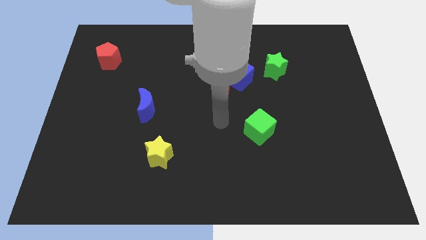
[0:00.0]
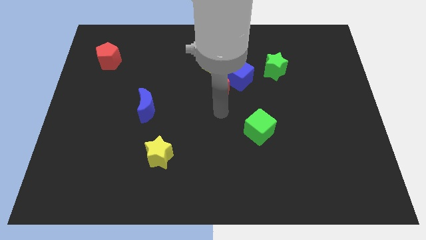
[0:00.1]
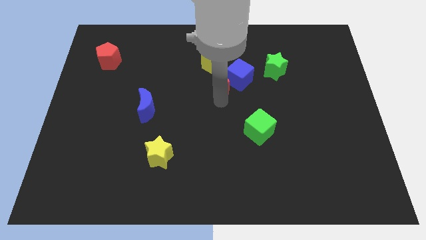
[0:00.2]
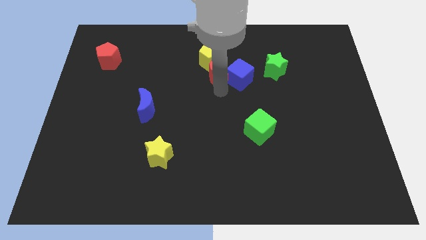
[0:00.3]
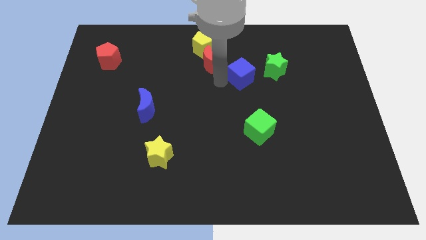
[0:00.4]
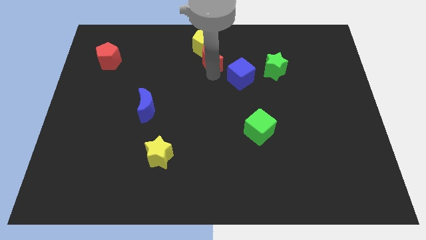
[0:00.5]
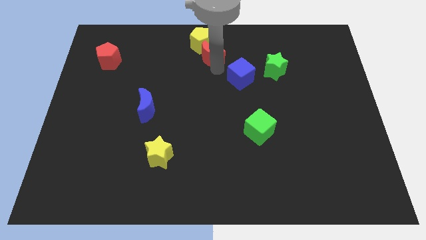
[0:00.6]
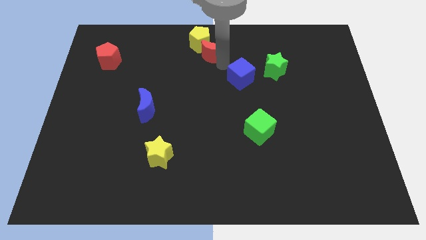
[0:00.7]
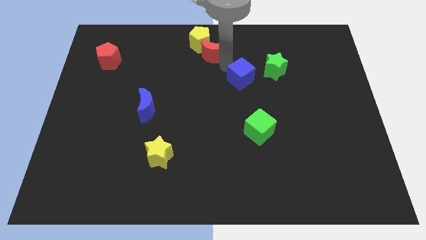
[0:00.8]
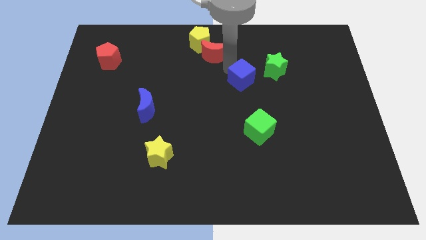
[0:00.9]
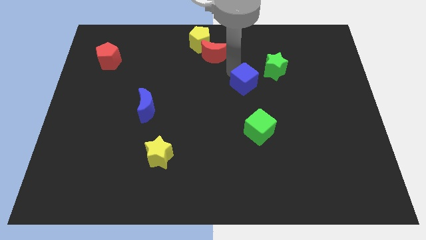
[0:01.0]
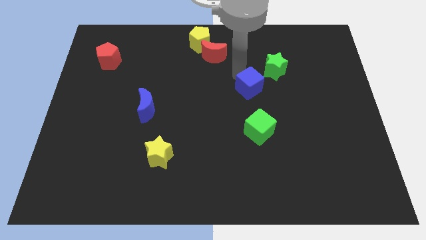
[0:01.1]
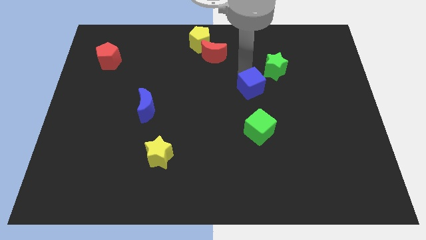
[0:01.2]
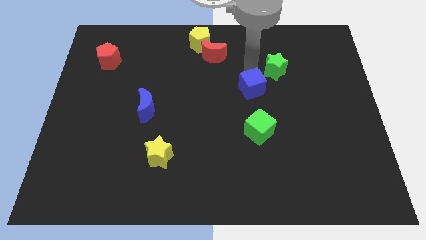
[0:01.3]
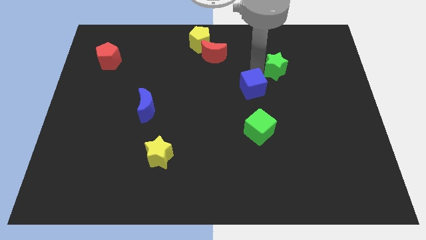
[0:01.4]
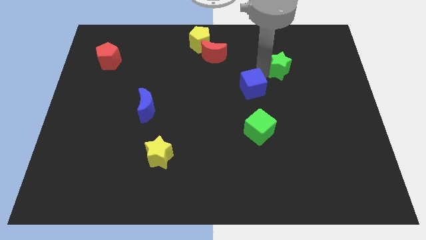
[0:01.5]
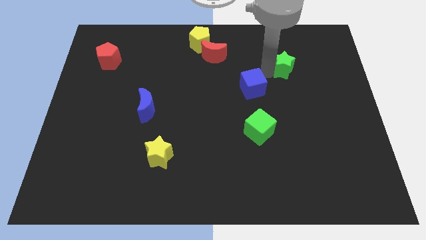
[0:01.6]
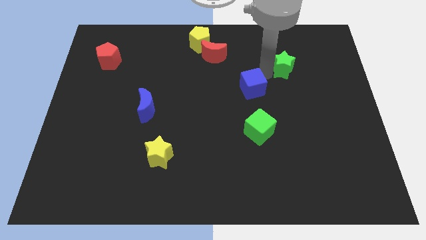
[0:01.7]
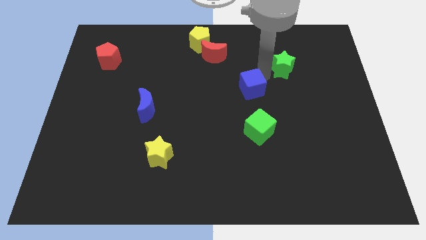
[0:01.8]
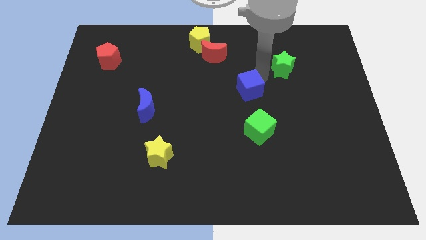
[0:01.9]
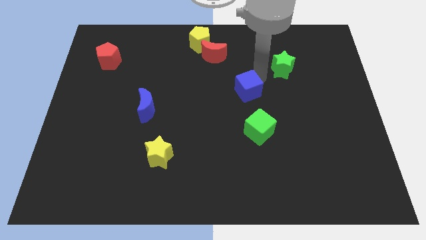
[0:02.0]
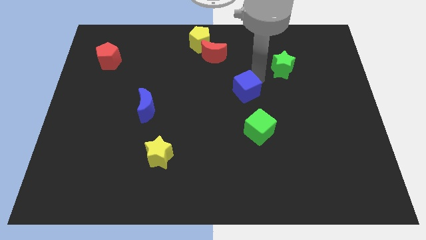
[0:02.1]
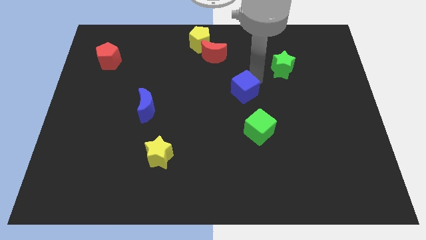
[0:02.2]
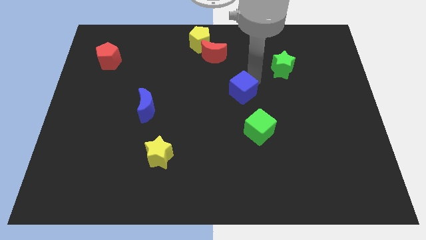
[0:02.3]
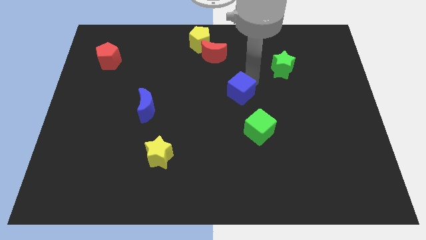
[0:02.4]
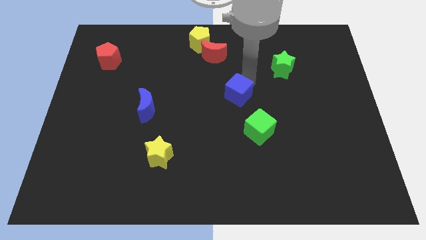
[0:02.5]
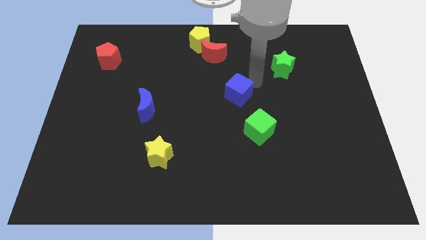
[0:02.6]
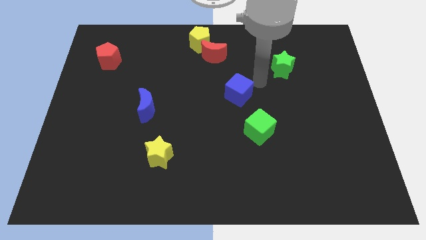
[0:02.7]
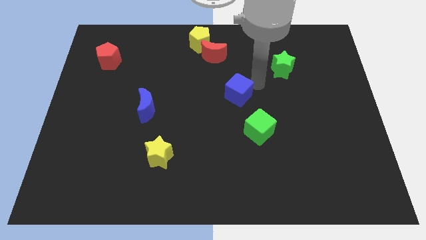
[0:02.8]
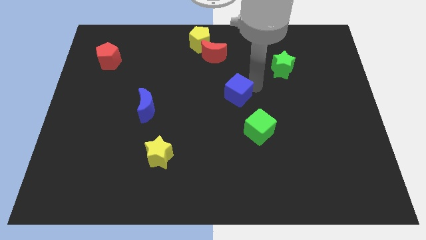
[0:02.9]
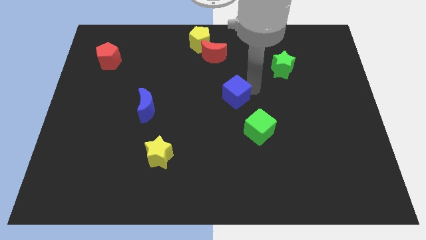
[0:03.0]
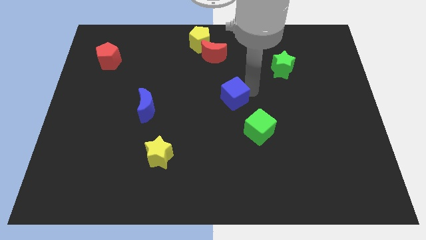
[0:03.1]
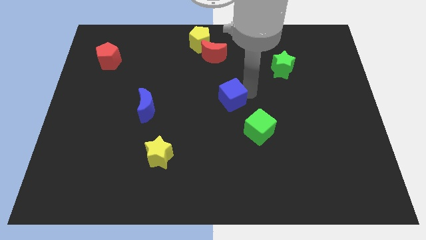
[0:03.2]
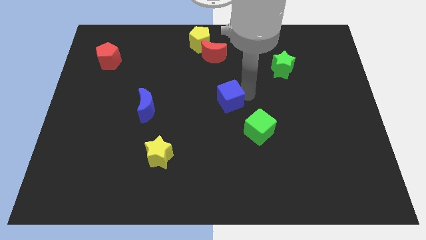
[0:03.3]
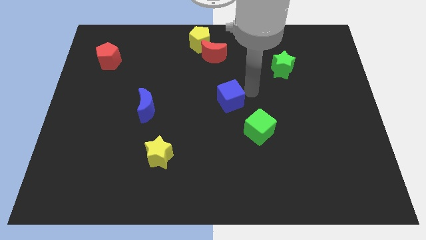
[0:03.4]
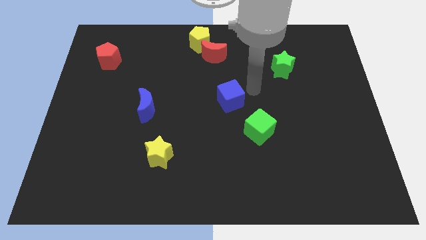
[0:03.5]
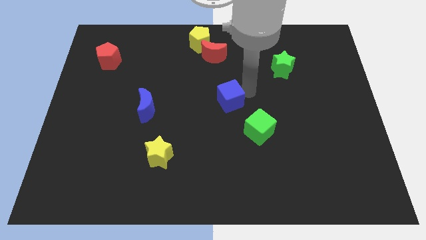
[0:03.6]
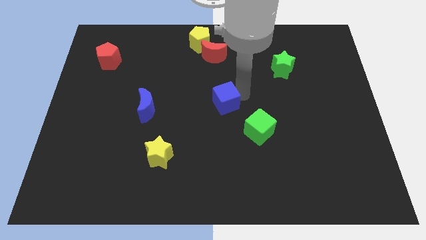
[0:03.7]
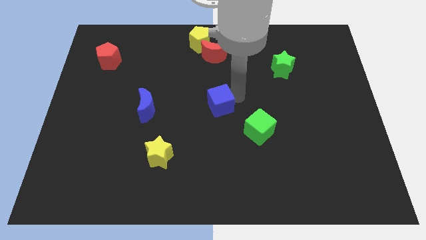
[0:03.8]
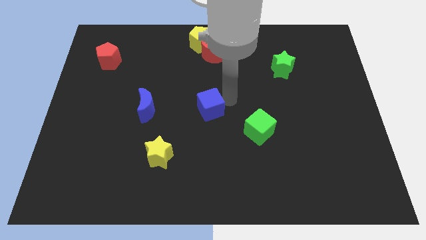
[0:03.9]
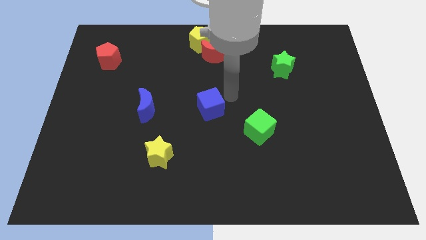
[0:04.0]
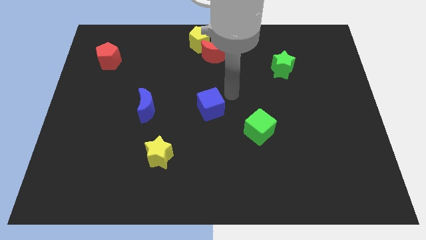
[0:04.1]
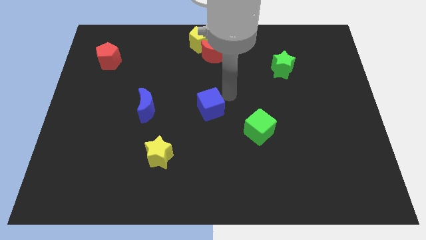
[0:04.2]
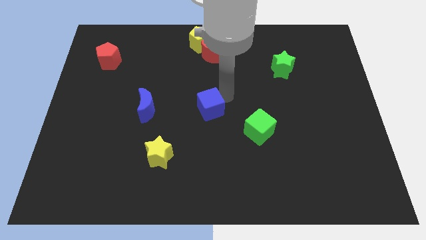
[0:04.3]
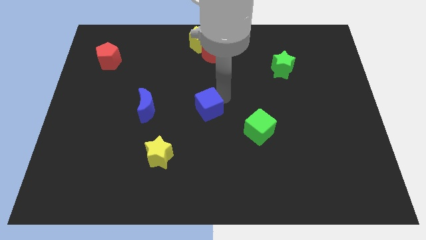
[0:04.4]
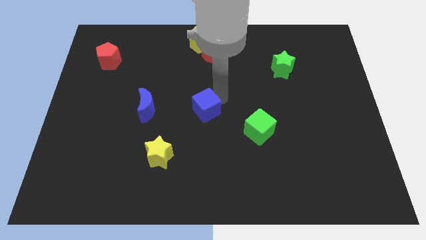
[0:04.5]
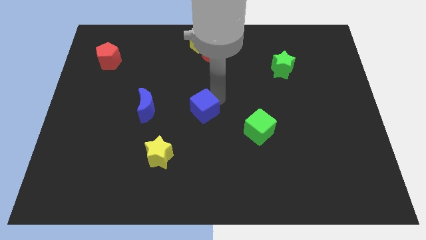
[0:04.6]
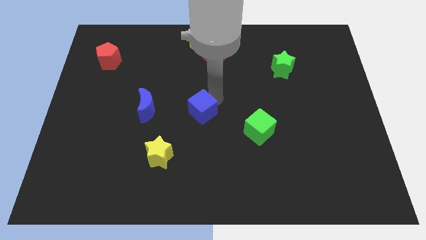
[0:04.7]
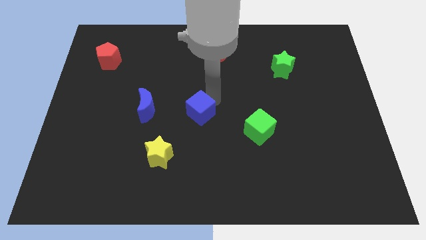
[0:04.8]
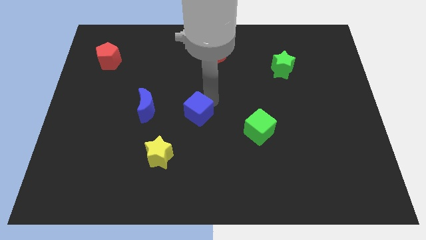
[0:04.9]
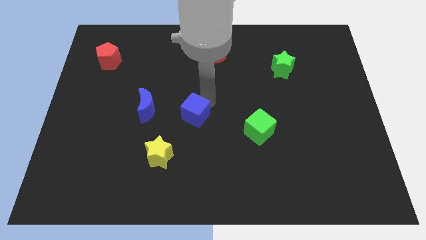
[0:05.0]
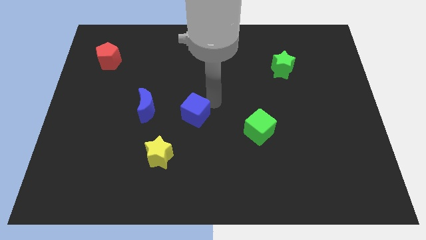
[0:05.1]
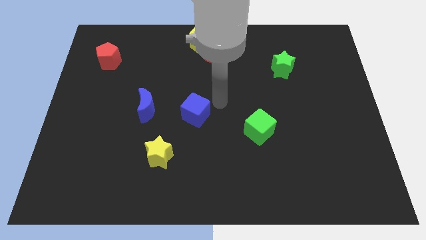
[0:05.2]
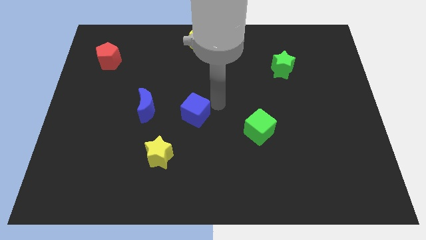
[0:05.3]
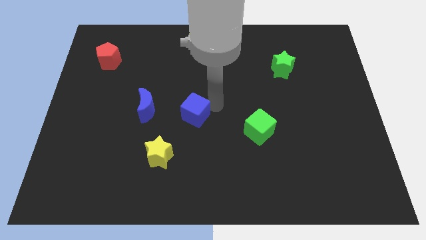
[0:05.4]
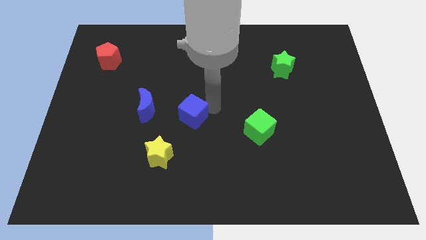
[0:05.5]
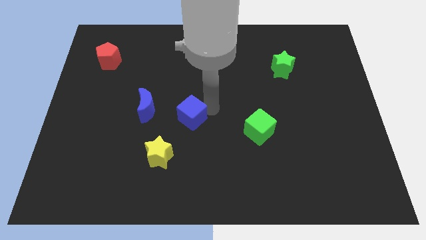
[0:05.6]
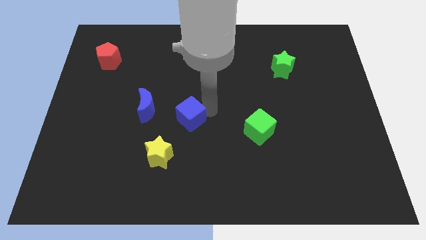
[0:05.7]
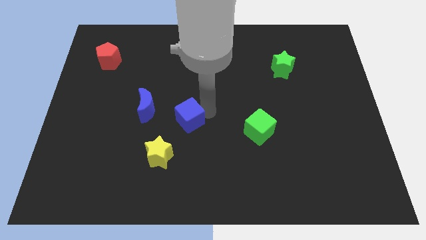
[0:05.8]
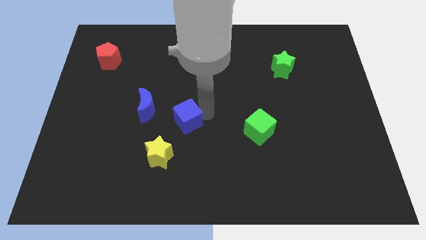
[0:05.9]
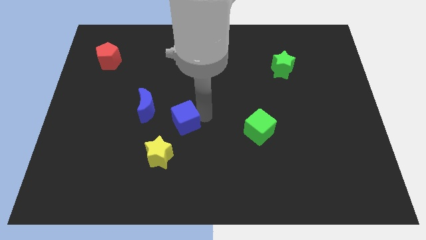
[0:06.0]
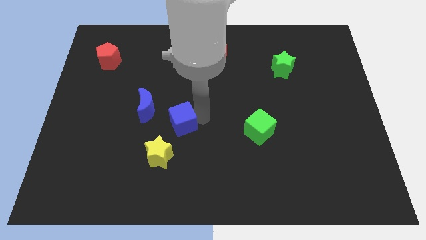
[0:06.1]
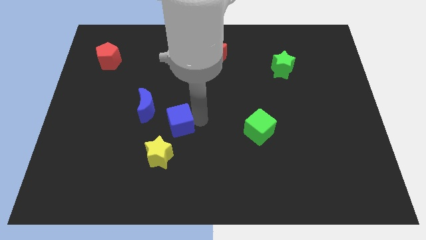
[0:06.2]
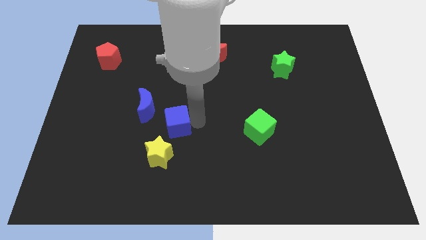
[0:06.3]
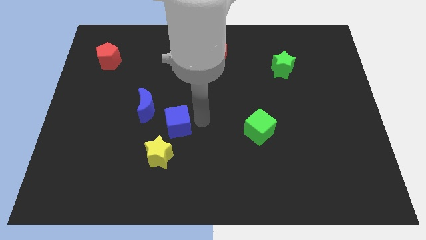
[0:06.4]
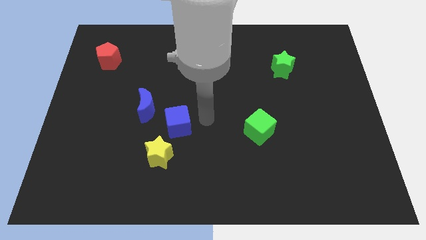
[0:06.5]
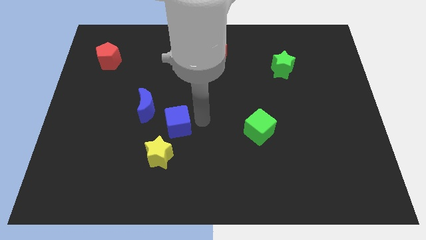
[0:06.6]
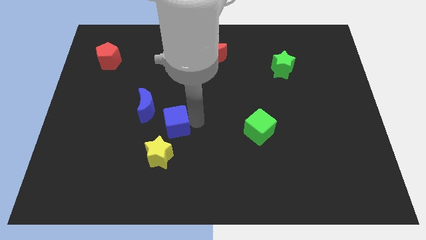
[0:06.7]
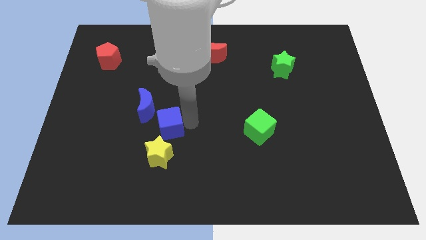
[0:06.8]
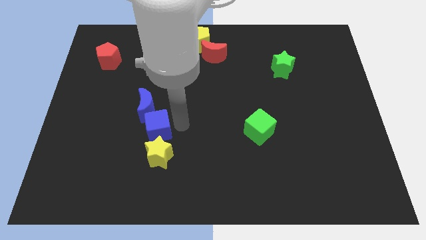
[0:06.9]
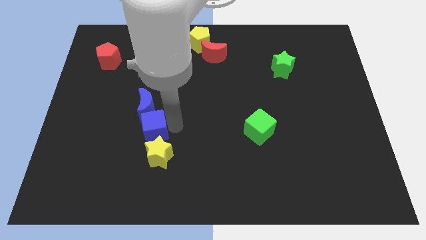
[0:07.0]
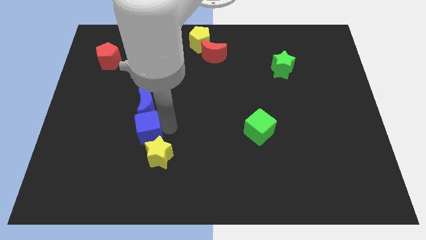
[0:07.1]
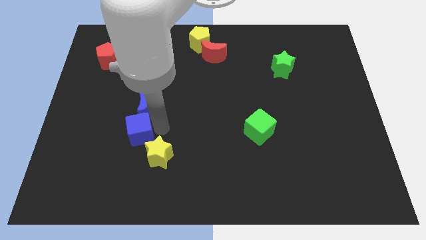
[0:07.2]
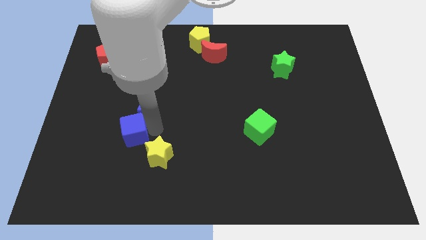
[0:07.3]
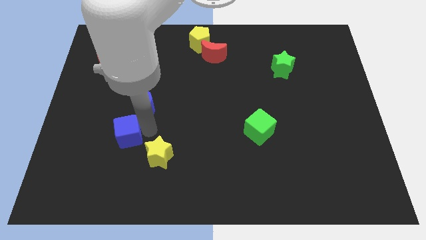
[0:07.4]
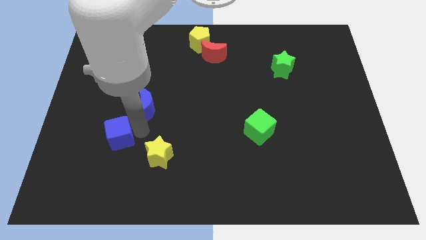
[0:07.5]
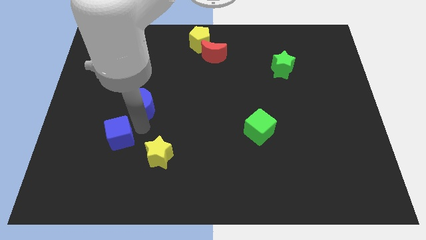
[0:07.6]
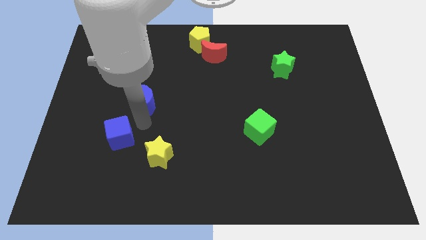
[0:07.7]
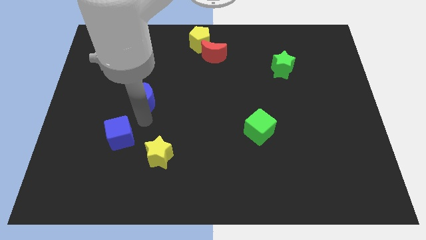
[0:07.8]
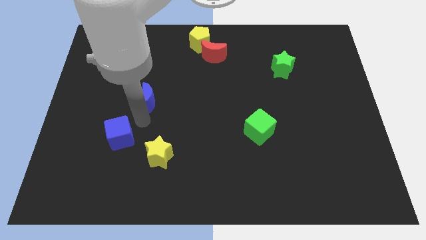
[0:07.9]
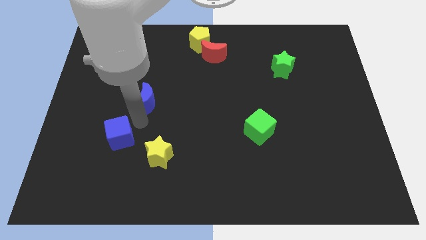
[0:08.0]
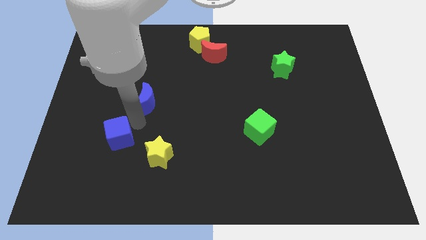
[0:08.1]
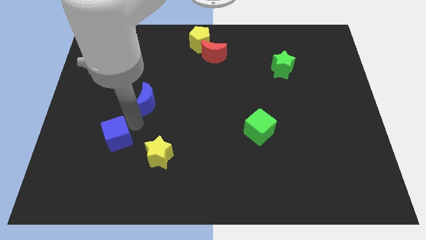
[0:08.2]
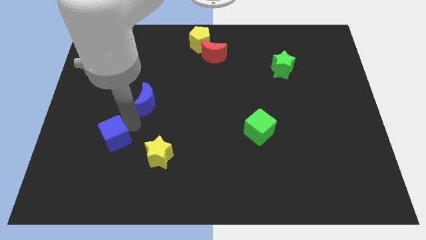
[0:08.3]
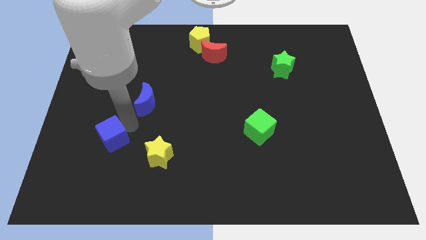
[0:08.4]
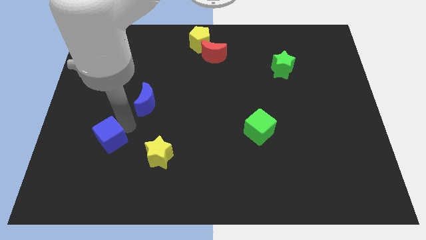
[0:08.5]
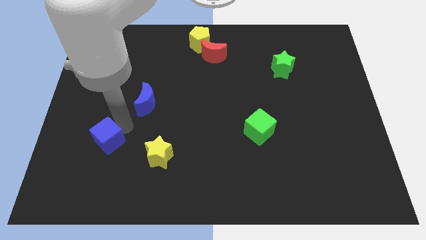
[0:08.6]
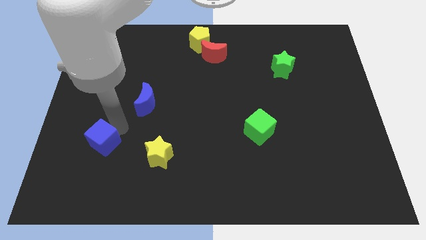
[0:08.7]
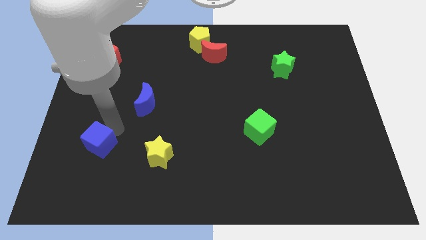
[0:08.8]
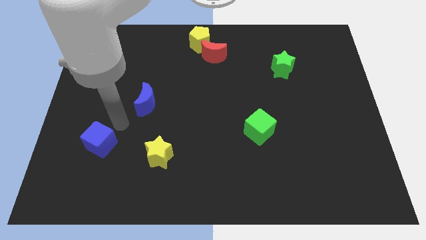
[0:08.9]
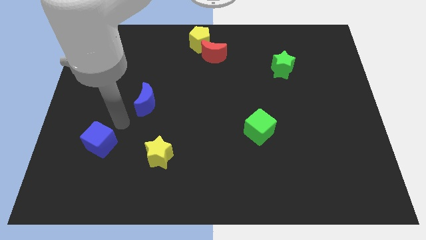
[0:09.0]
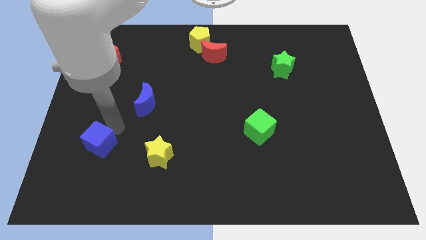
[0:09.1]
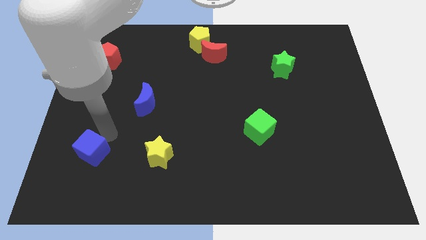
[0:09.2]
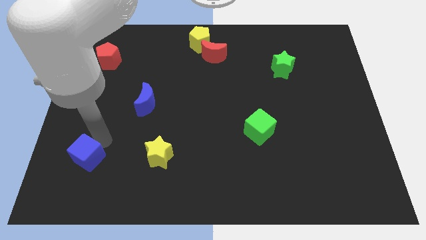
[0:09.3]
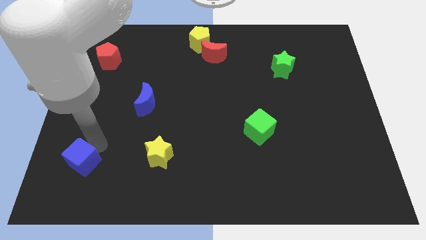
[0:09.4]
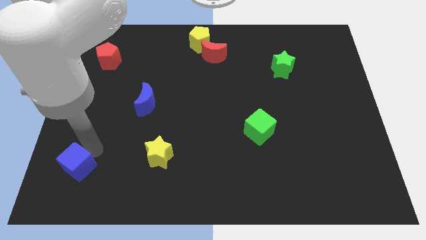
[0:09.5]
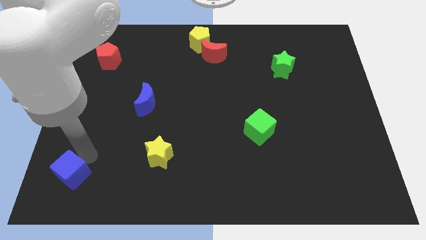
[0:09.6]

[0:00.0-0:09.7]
put the blue cube to the bottom left corner
